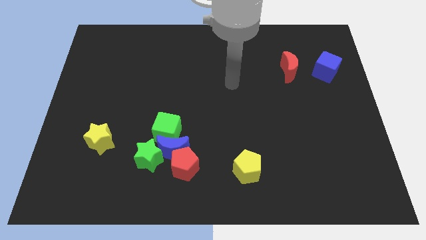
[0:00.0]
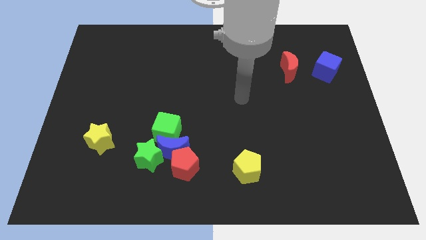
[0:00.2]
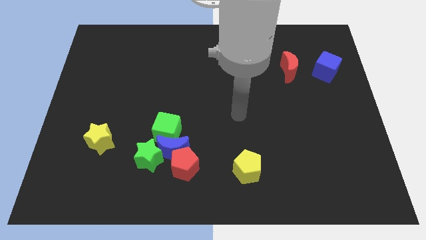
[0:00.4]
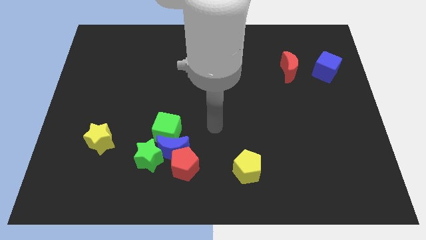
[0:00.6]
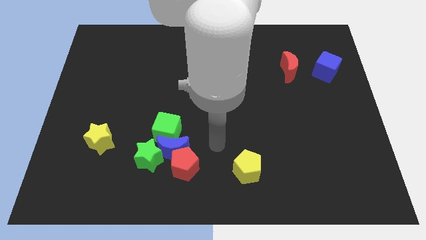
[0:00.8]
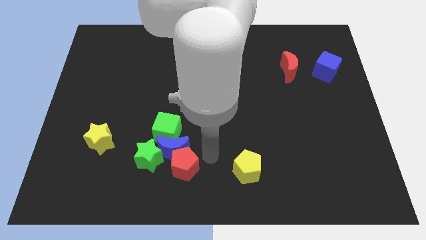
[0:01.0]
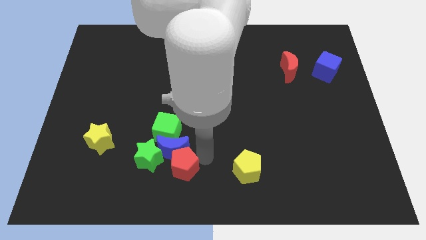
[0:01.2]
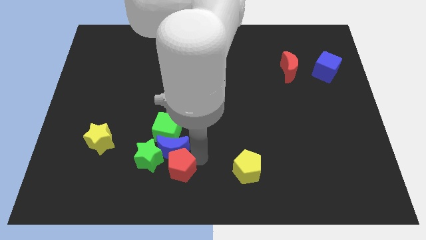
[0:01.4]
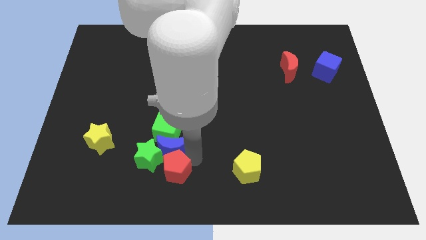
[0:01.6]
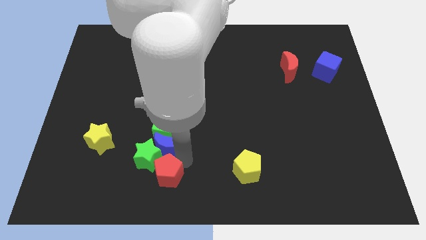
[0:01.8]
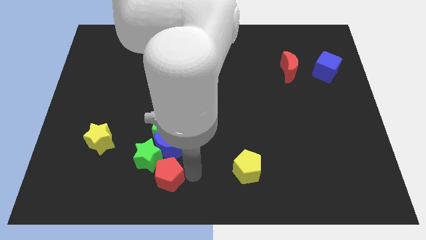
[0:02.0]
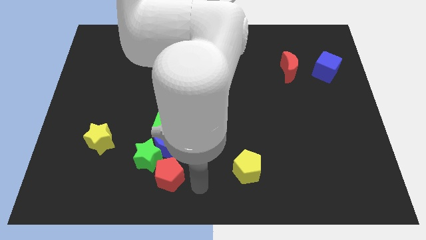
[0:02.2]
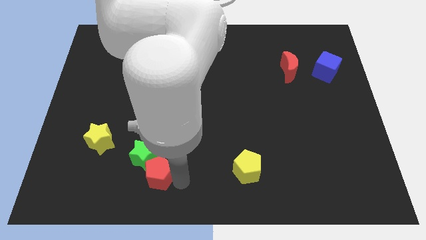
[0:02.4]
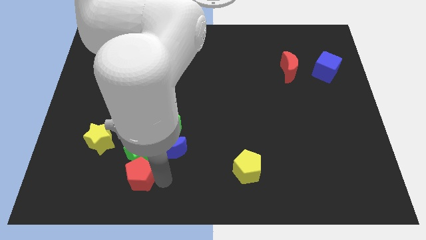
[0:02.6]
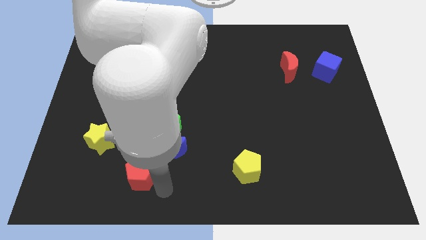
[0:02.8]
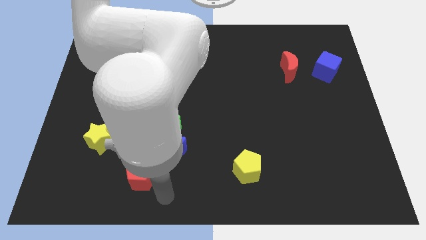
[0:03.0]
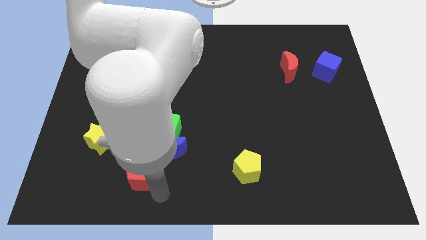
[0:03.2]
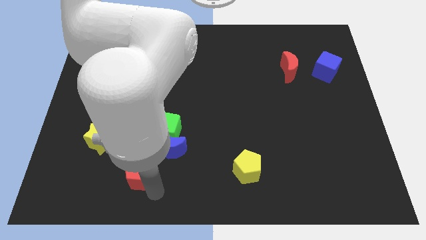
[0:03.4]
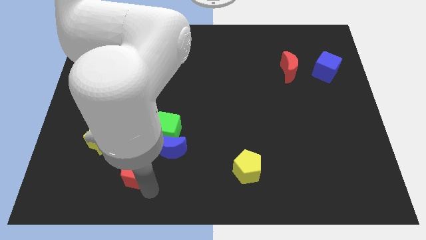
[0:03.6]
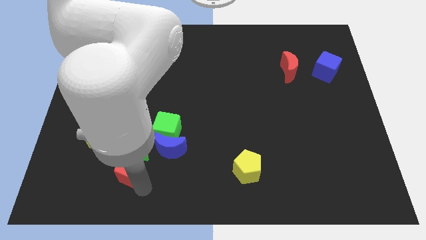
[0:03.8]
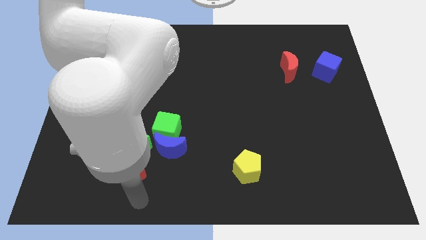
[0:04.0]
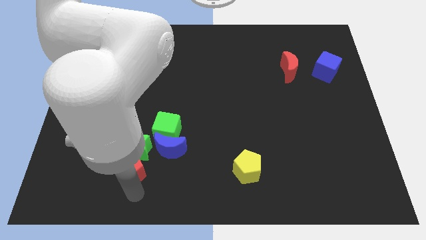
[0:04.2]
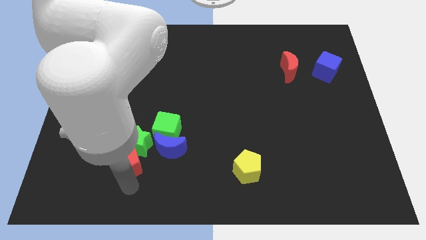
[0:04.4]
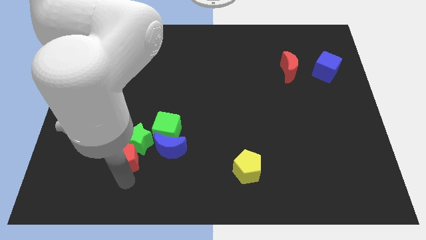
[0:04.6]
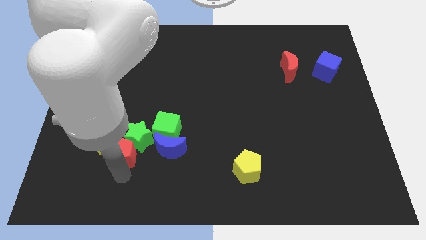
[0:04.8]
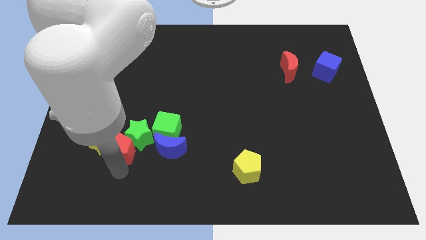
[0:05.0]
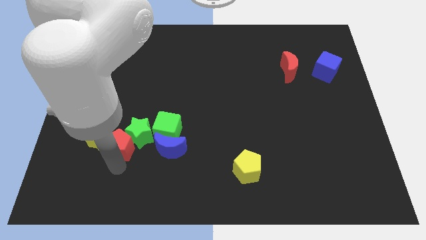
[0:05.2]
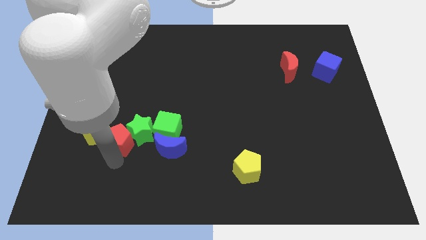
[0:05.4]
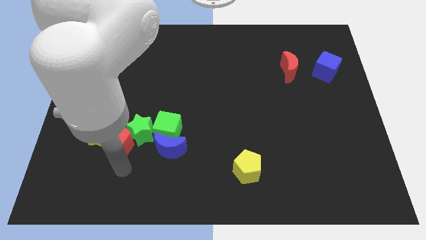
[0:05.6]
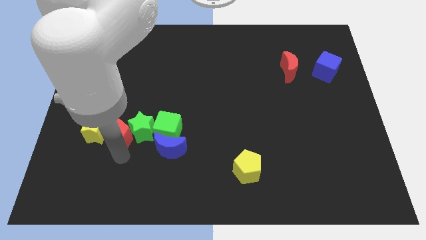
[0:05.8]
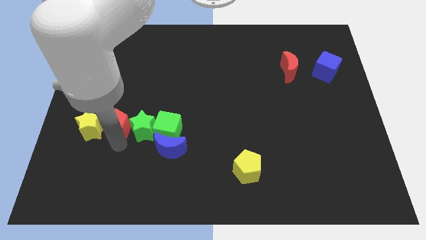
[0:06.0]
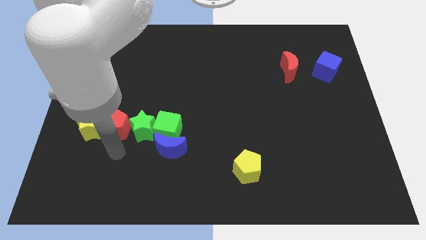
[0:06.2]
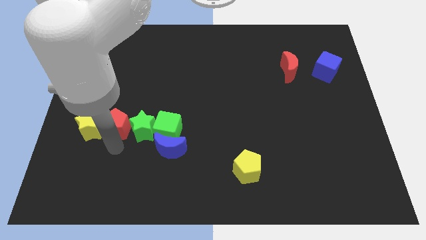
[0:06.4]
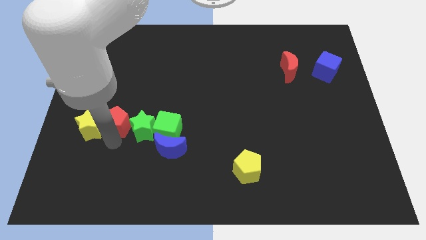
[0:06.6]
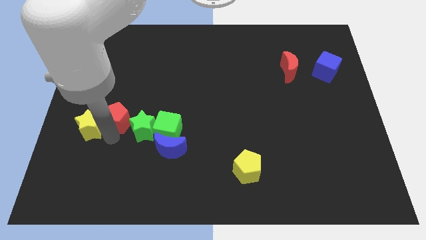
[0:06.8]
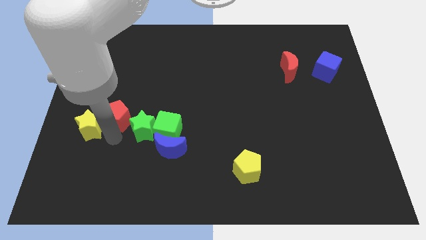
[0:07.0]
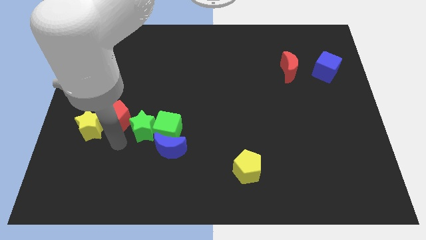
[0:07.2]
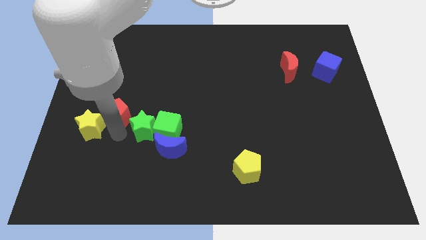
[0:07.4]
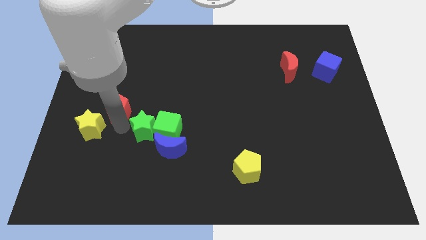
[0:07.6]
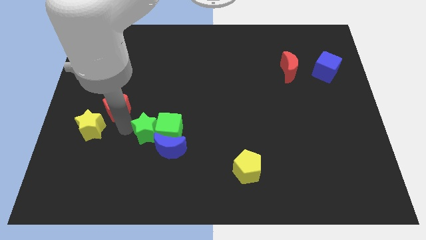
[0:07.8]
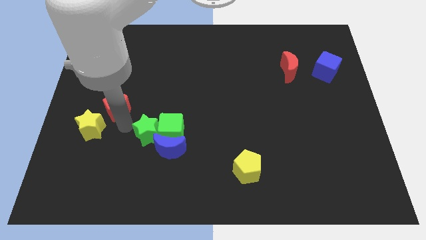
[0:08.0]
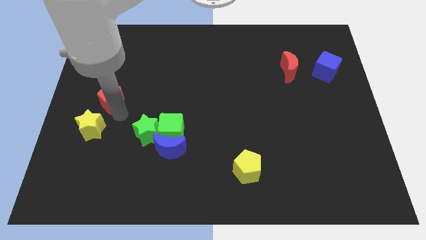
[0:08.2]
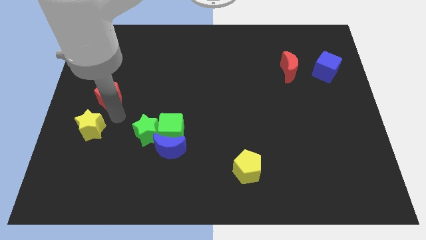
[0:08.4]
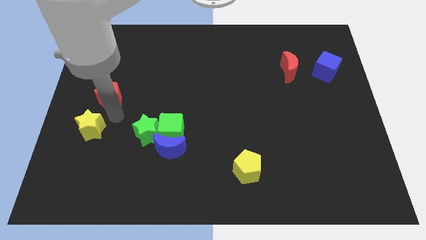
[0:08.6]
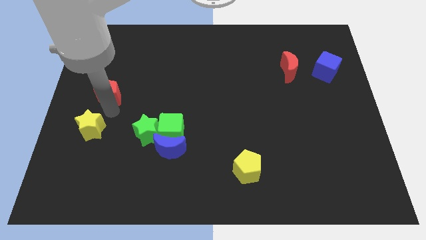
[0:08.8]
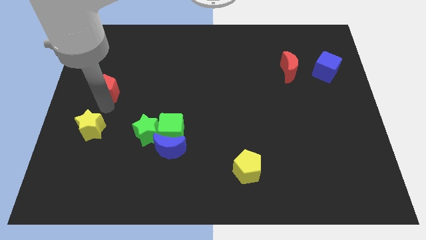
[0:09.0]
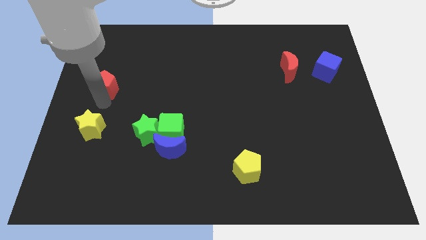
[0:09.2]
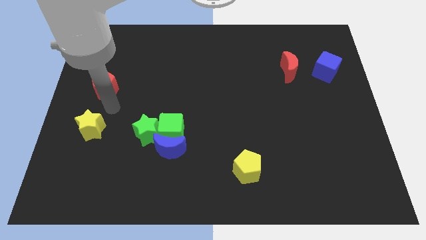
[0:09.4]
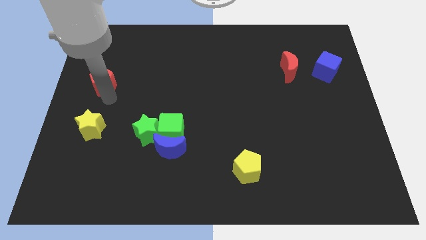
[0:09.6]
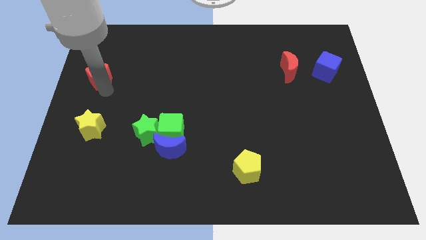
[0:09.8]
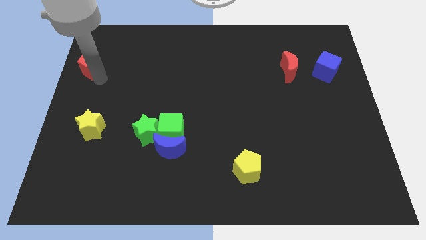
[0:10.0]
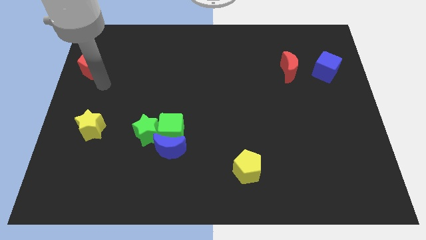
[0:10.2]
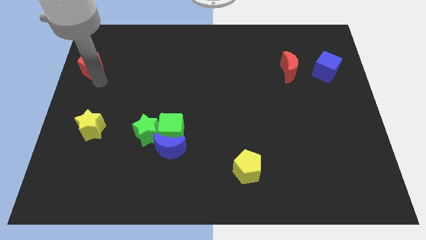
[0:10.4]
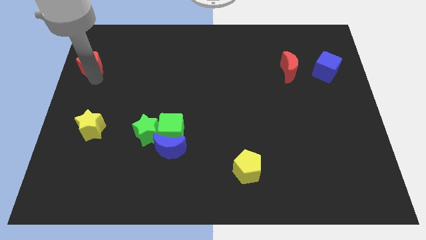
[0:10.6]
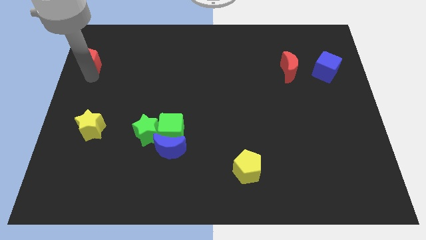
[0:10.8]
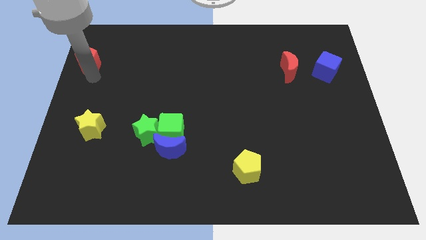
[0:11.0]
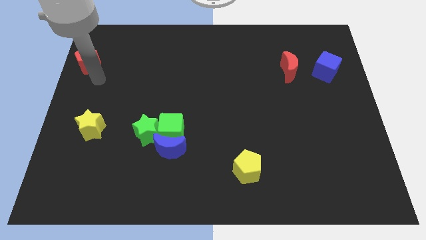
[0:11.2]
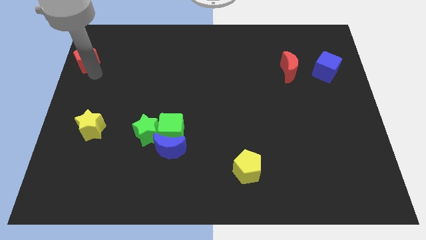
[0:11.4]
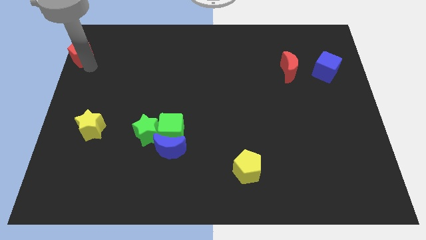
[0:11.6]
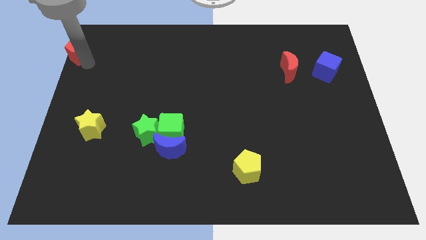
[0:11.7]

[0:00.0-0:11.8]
move the red pentagon to the top left corner

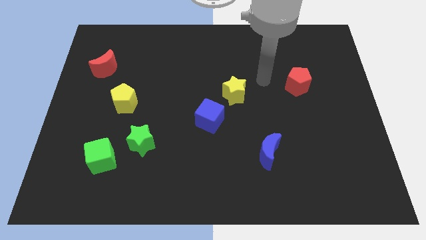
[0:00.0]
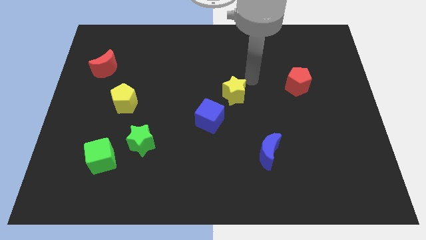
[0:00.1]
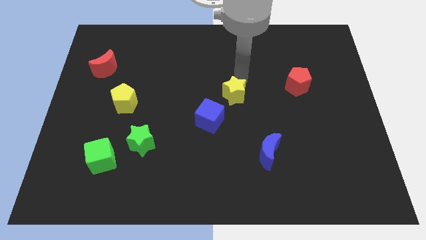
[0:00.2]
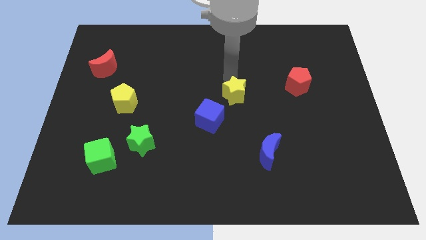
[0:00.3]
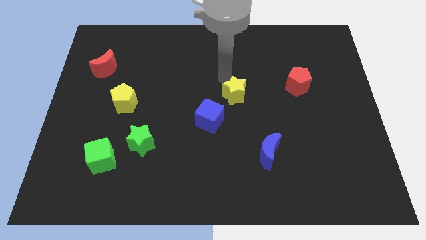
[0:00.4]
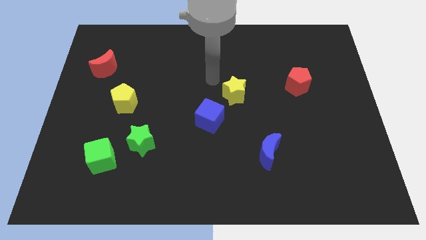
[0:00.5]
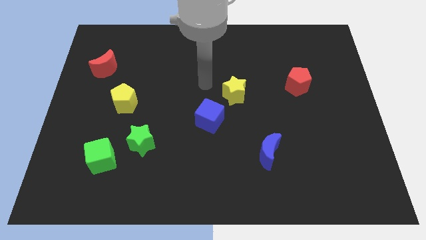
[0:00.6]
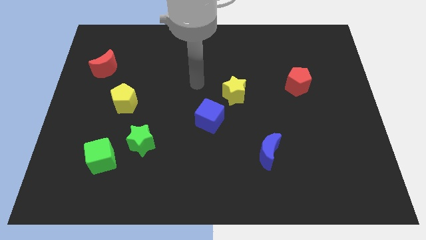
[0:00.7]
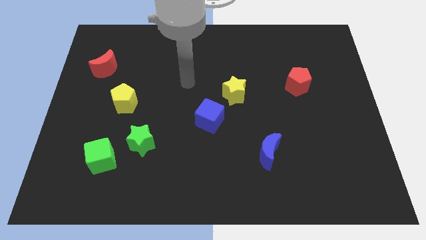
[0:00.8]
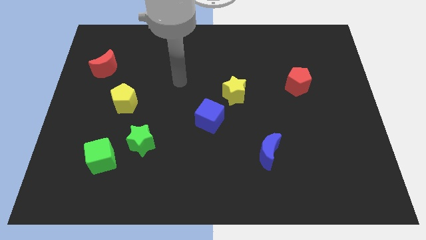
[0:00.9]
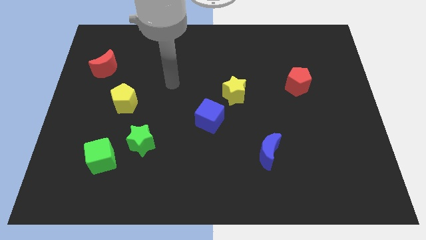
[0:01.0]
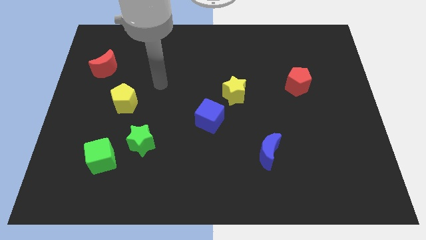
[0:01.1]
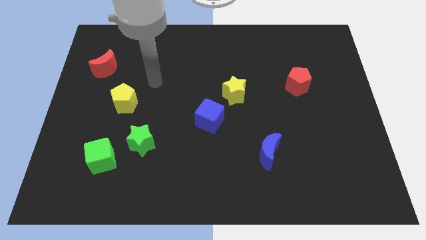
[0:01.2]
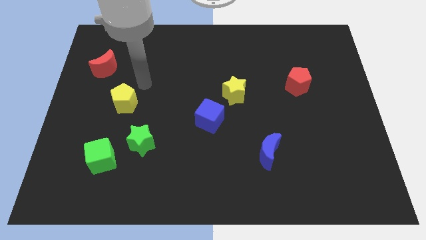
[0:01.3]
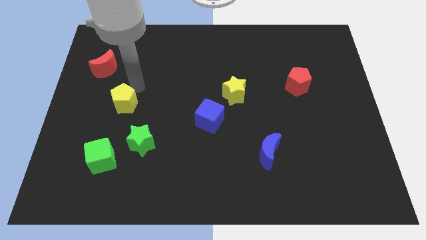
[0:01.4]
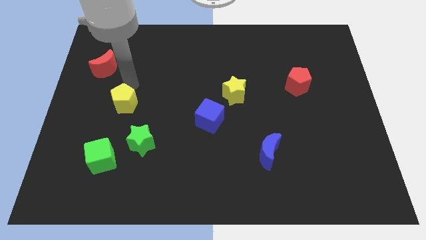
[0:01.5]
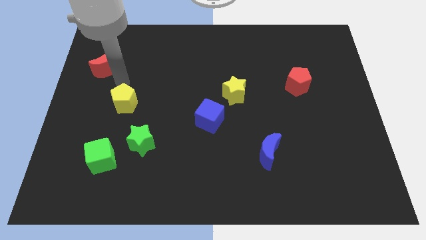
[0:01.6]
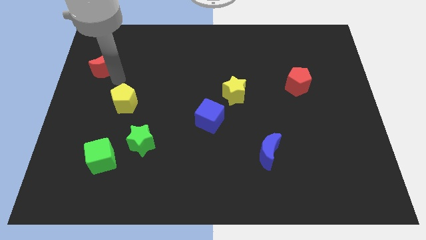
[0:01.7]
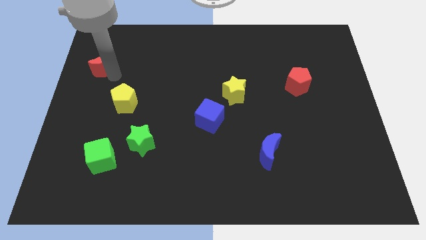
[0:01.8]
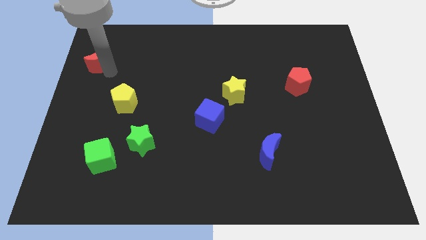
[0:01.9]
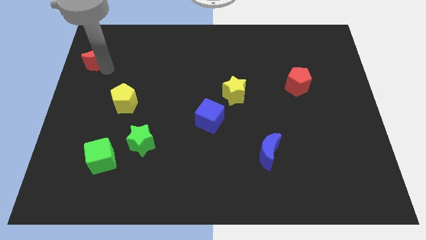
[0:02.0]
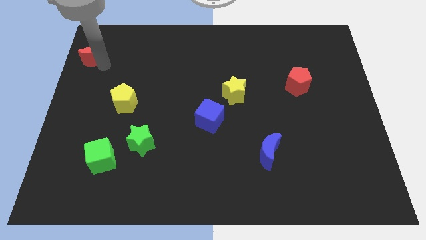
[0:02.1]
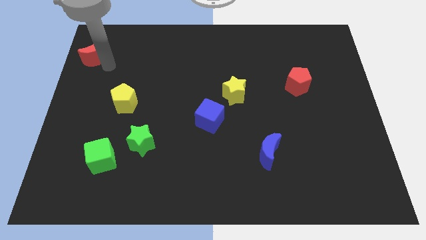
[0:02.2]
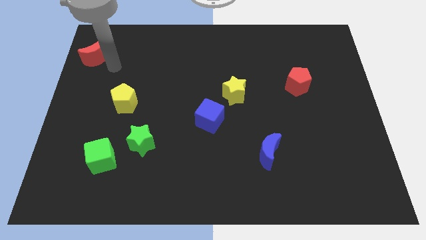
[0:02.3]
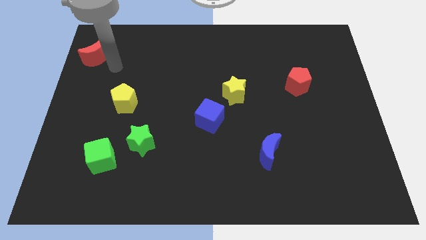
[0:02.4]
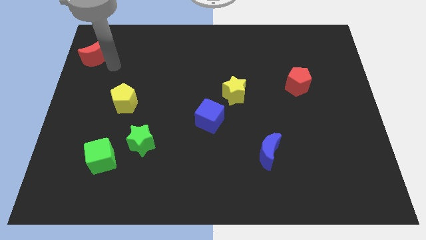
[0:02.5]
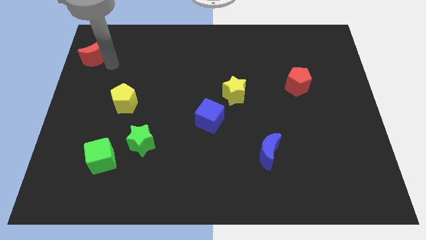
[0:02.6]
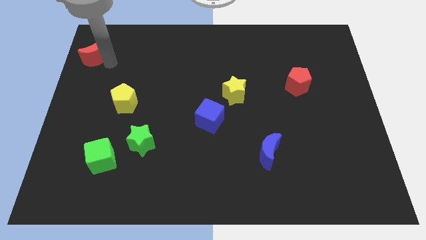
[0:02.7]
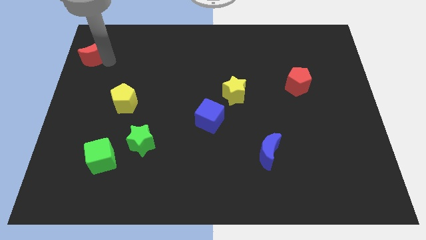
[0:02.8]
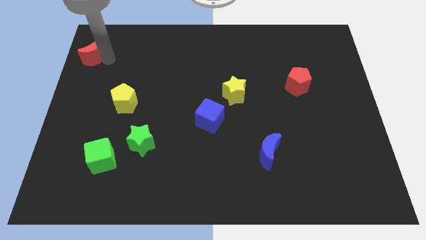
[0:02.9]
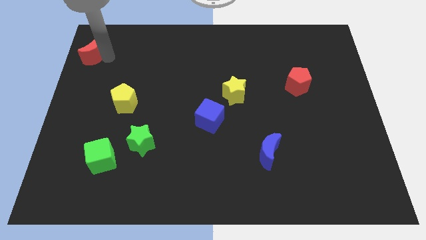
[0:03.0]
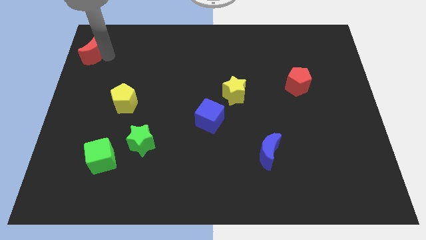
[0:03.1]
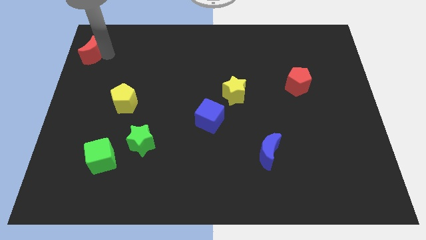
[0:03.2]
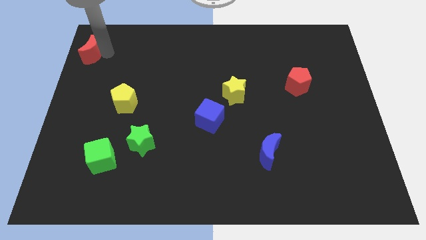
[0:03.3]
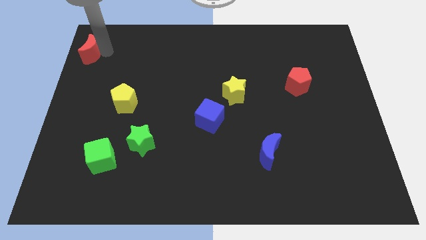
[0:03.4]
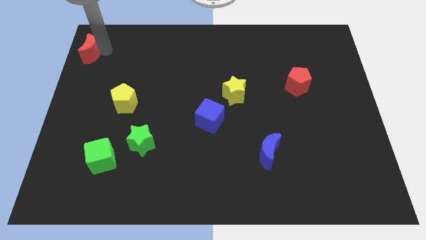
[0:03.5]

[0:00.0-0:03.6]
put the red moon to the top left
